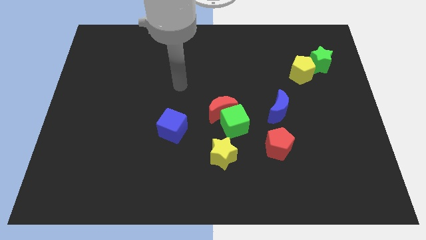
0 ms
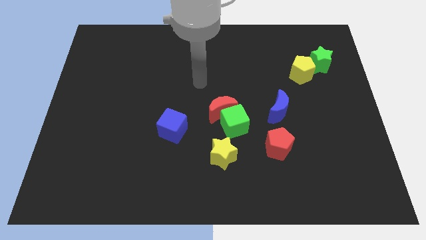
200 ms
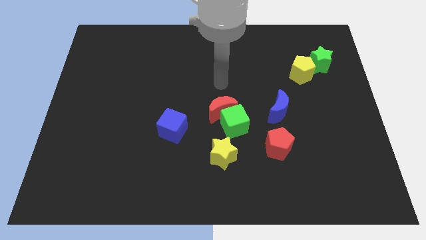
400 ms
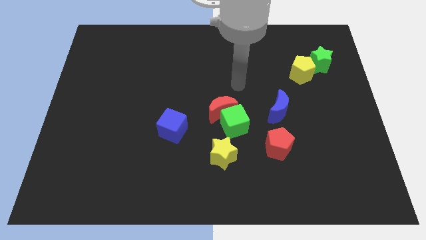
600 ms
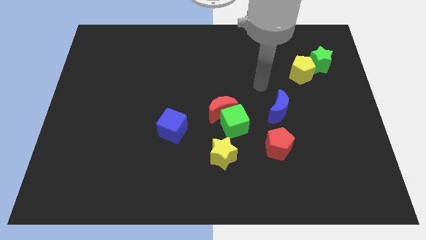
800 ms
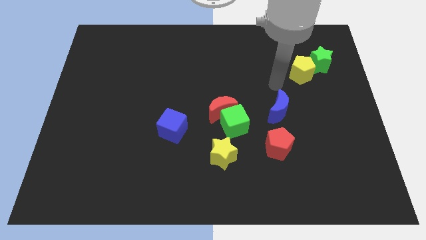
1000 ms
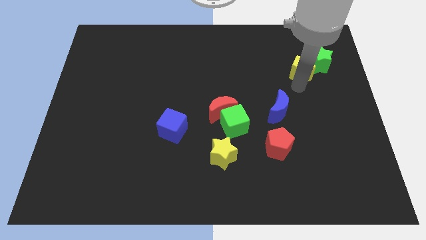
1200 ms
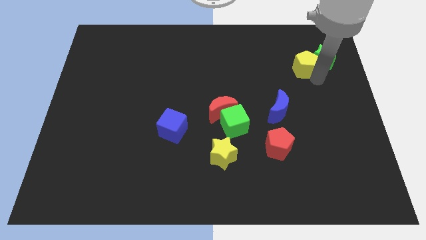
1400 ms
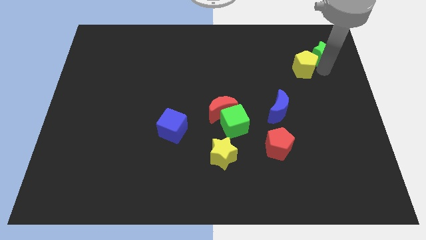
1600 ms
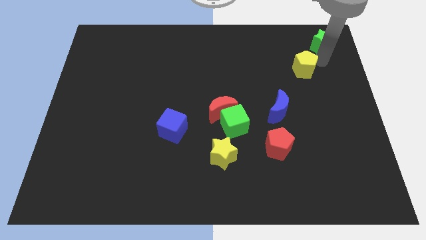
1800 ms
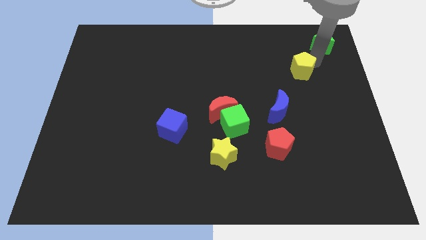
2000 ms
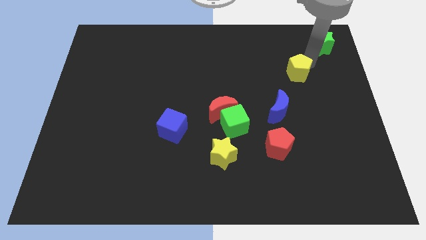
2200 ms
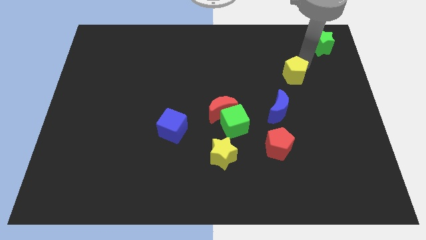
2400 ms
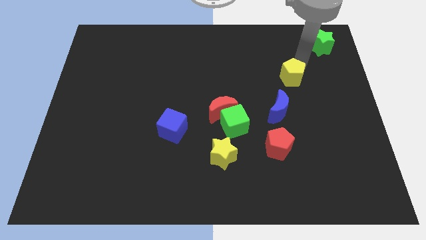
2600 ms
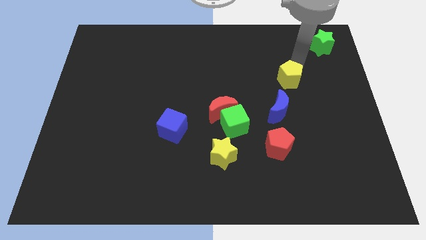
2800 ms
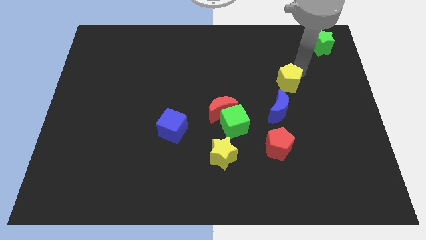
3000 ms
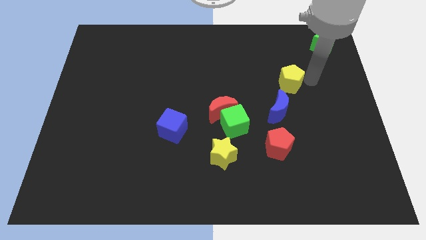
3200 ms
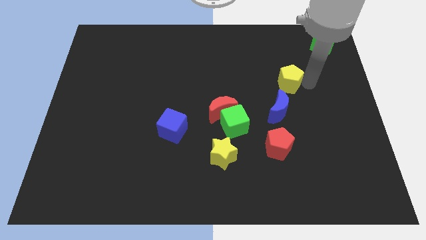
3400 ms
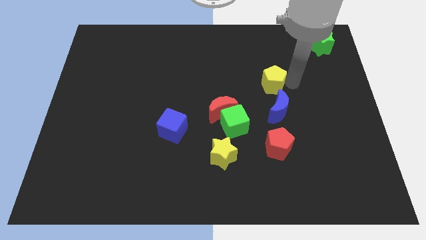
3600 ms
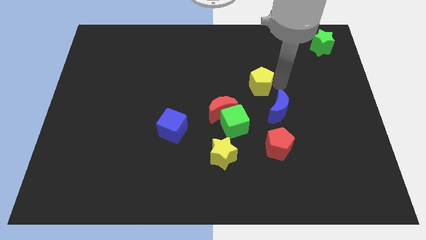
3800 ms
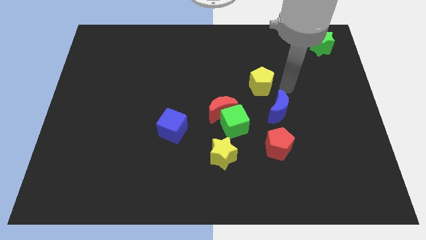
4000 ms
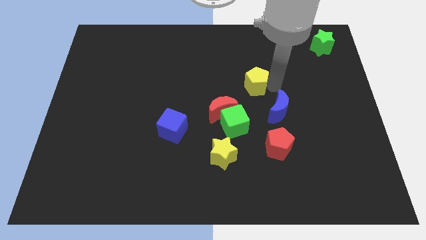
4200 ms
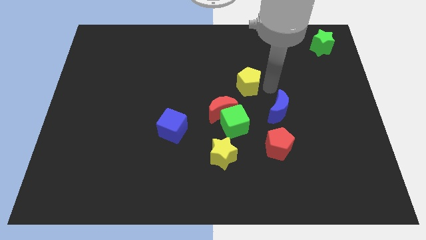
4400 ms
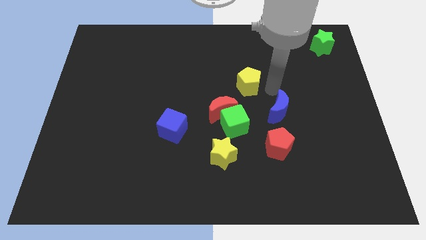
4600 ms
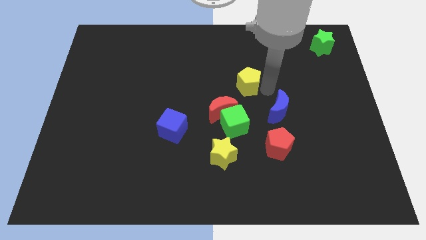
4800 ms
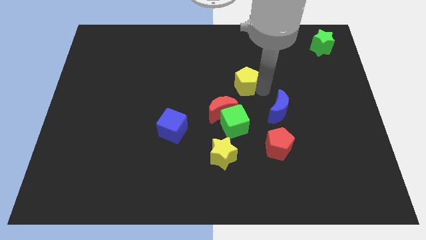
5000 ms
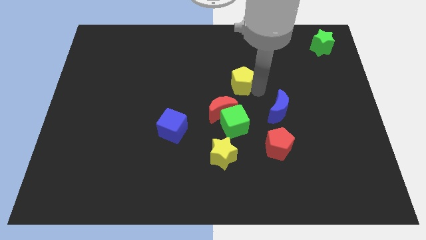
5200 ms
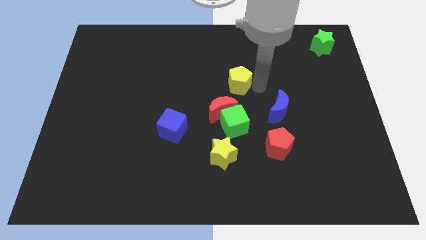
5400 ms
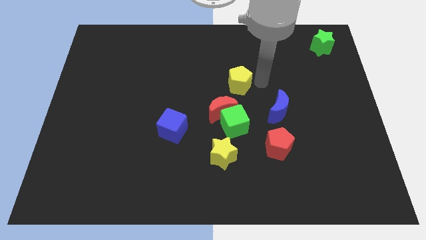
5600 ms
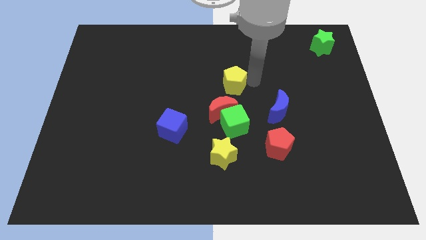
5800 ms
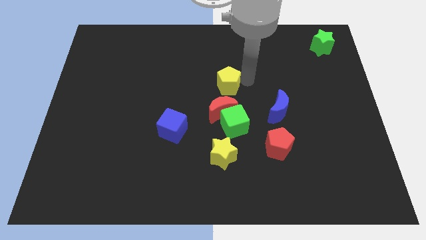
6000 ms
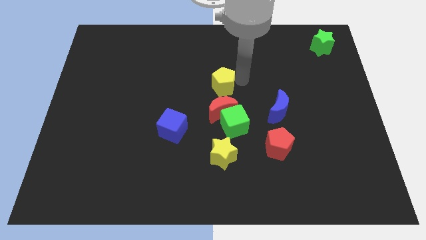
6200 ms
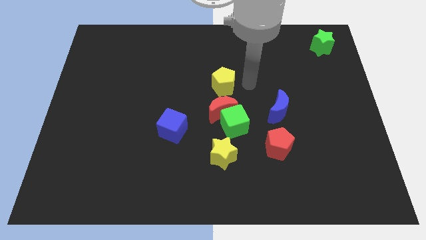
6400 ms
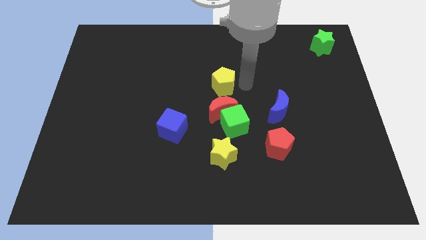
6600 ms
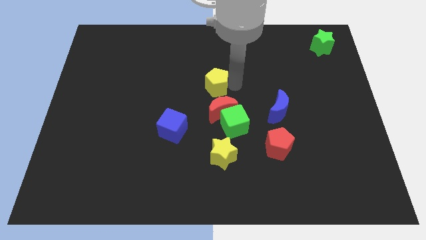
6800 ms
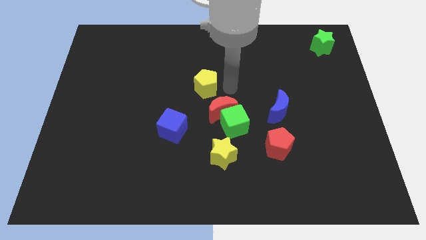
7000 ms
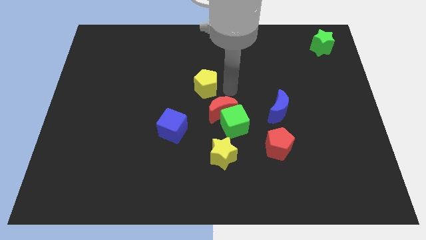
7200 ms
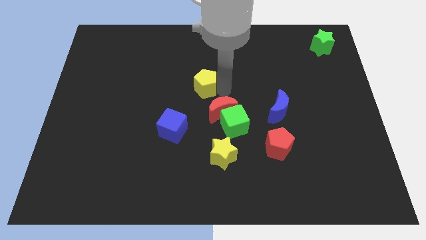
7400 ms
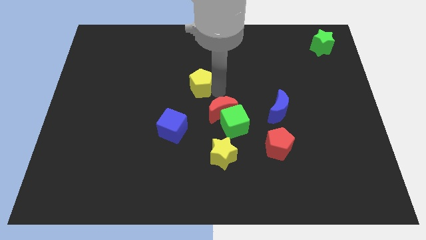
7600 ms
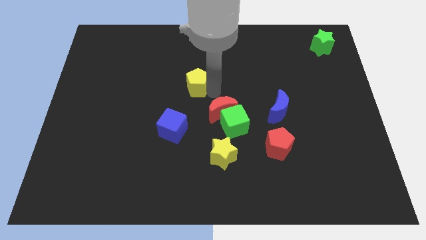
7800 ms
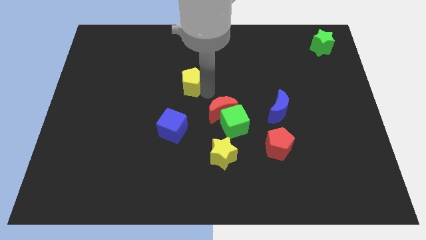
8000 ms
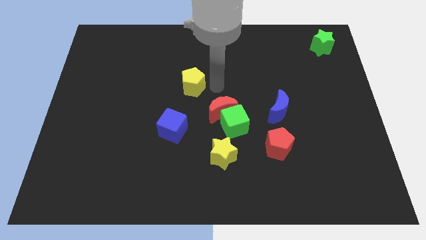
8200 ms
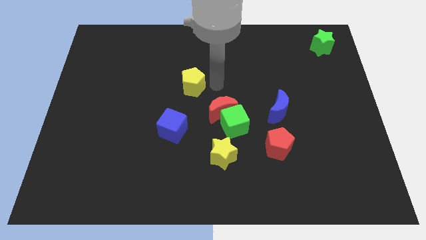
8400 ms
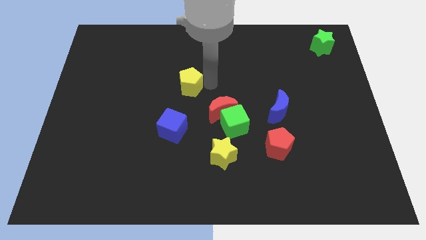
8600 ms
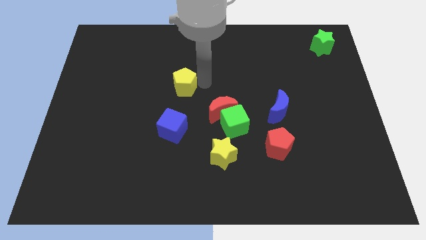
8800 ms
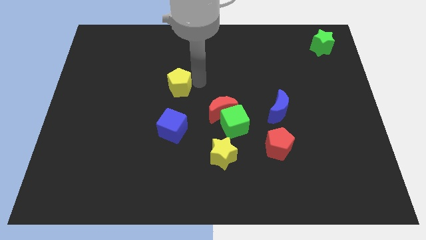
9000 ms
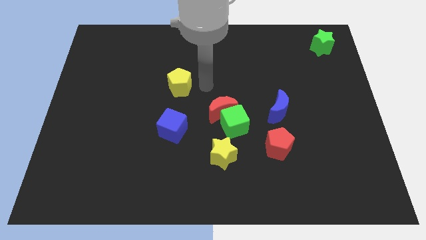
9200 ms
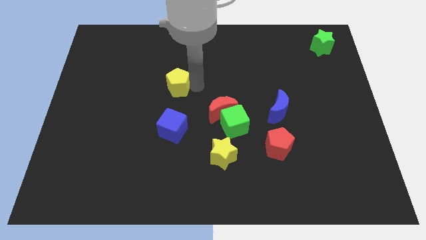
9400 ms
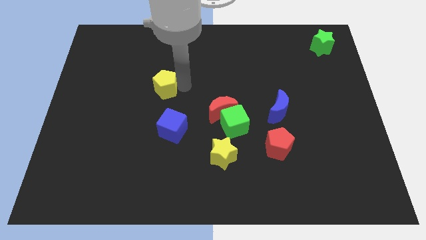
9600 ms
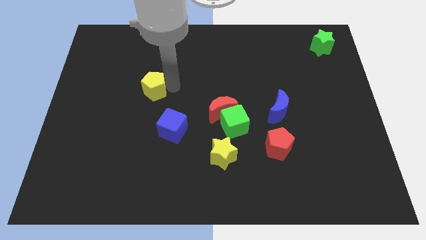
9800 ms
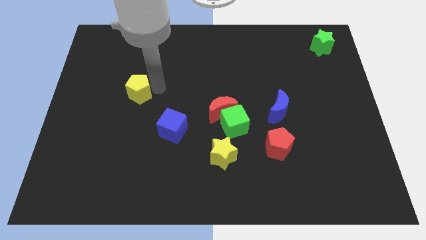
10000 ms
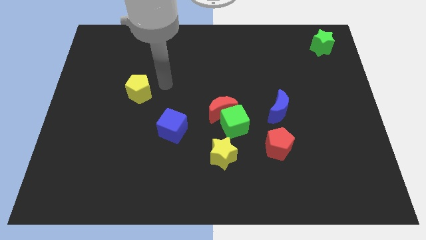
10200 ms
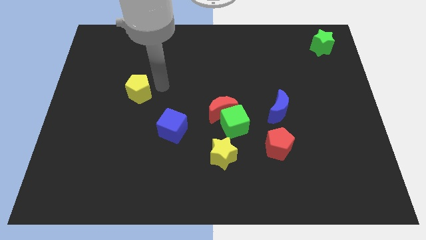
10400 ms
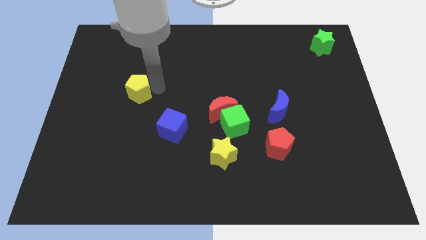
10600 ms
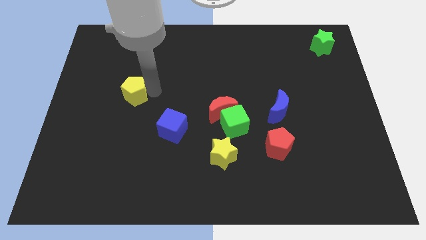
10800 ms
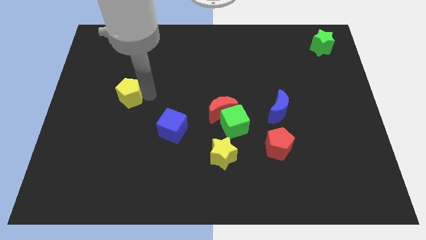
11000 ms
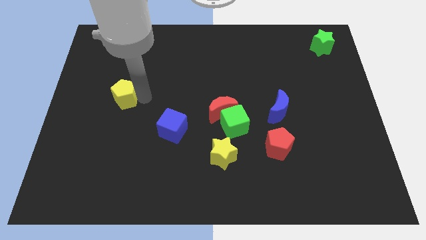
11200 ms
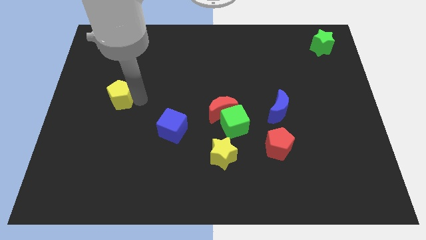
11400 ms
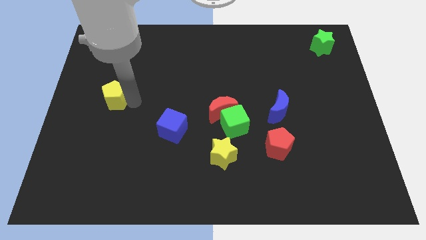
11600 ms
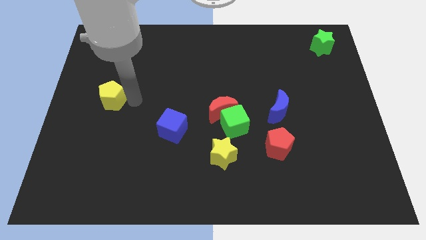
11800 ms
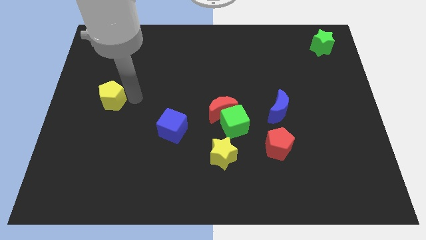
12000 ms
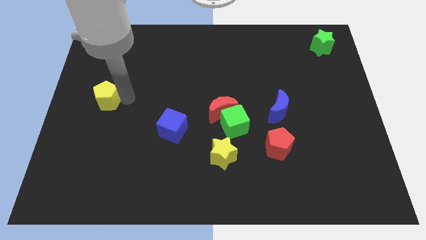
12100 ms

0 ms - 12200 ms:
put the yellow pentagon to the center left
